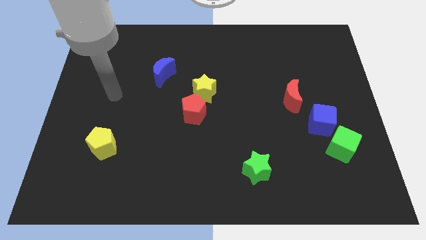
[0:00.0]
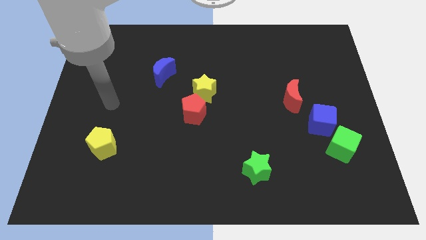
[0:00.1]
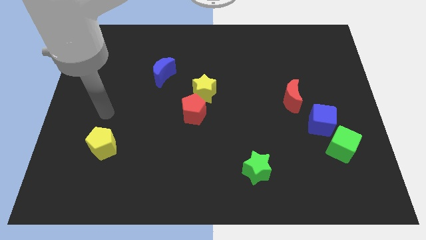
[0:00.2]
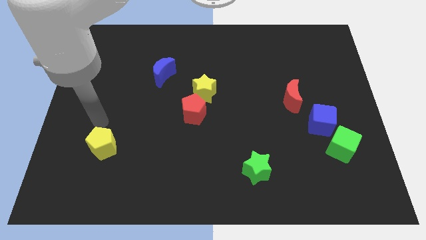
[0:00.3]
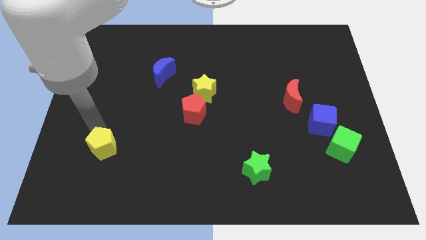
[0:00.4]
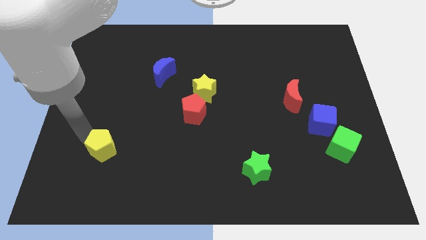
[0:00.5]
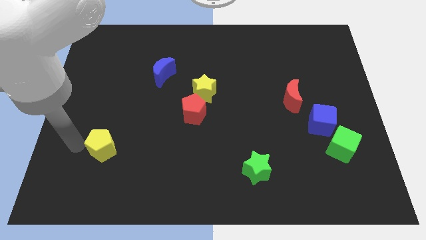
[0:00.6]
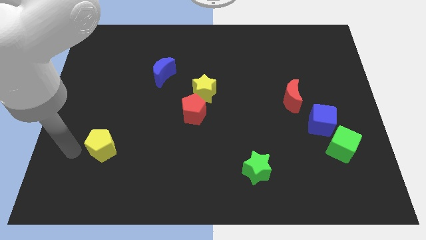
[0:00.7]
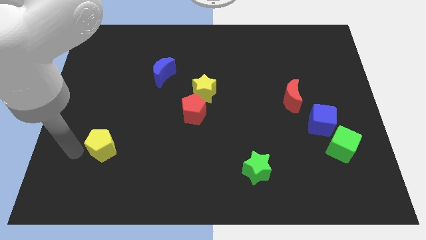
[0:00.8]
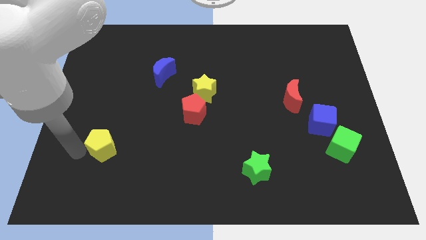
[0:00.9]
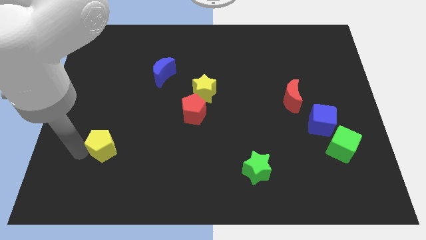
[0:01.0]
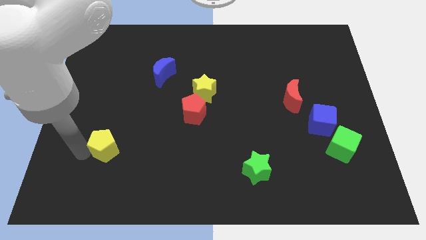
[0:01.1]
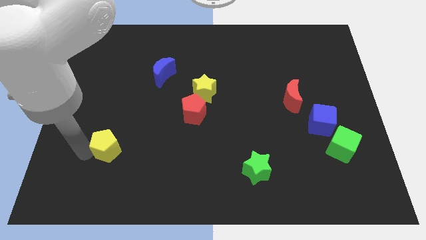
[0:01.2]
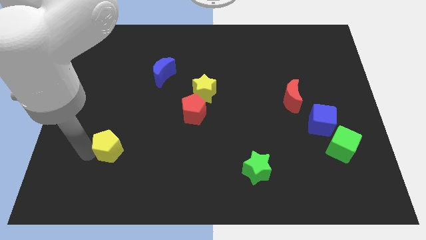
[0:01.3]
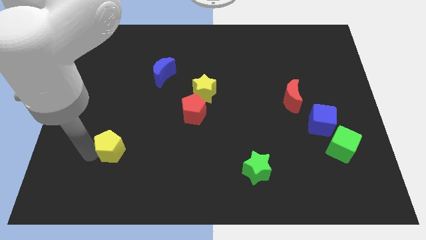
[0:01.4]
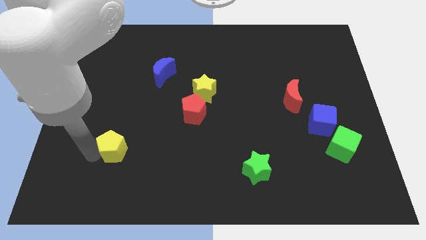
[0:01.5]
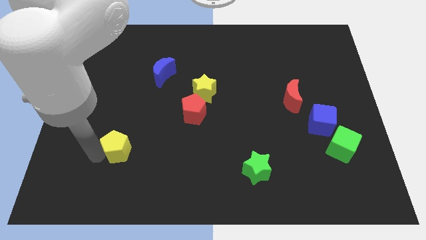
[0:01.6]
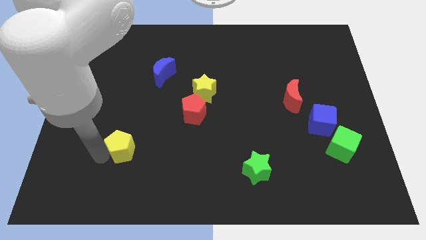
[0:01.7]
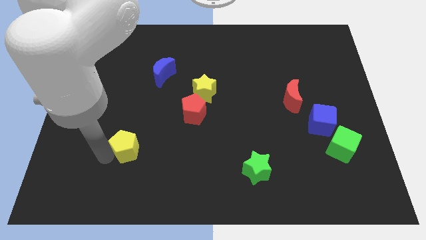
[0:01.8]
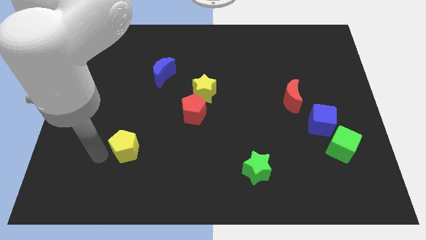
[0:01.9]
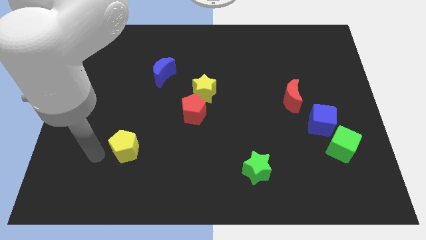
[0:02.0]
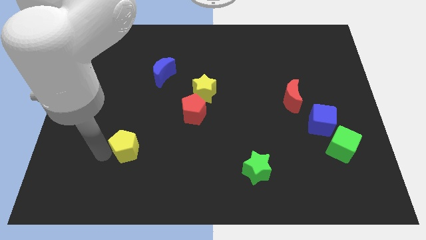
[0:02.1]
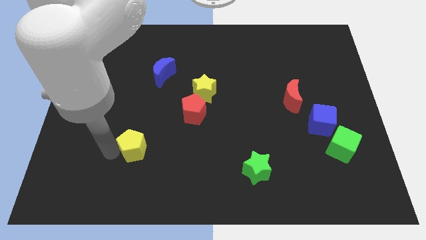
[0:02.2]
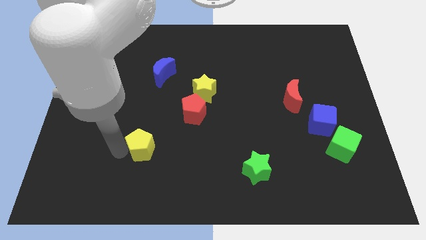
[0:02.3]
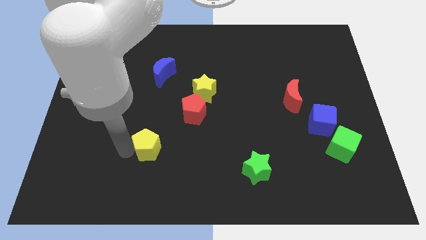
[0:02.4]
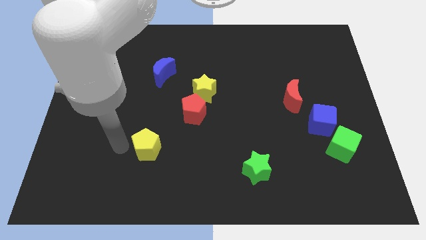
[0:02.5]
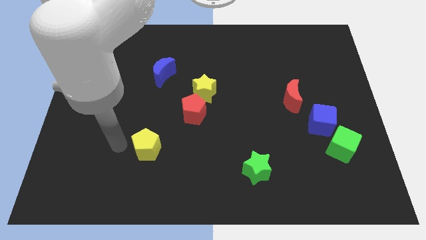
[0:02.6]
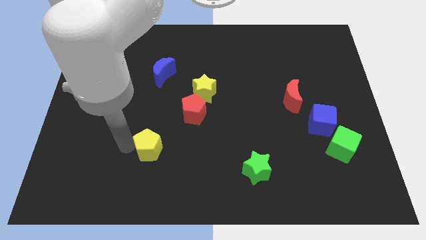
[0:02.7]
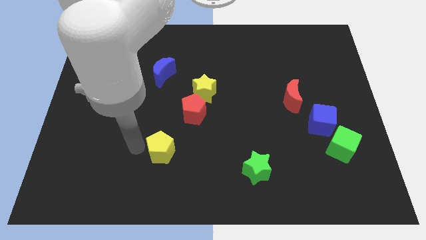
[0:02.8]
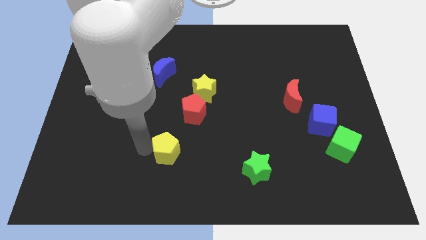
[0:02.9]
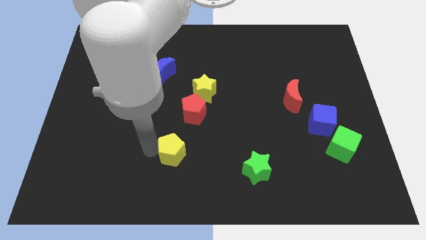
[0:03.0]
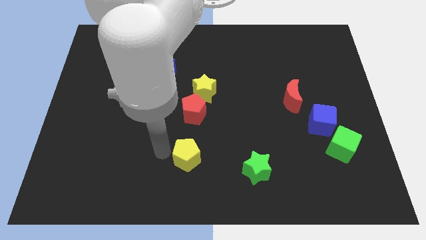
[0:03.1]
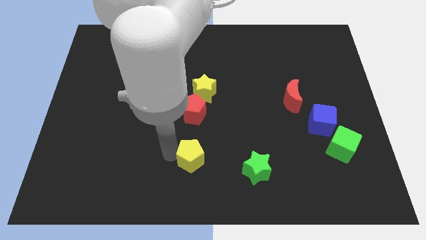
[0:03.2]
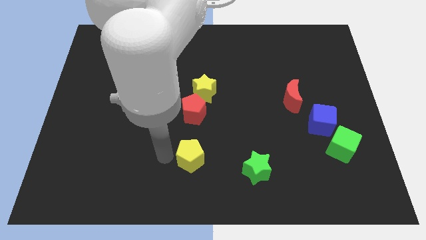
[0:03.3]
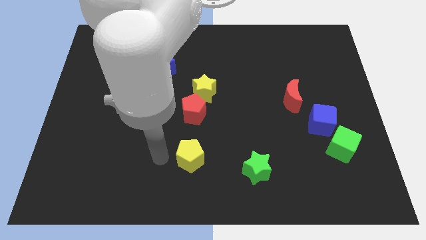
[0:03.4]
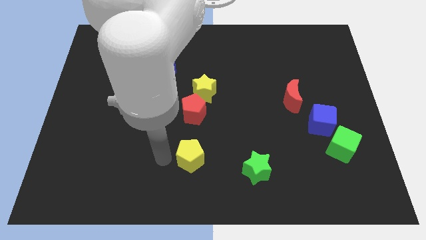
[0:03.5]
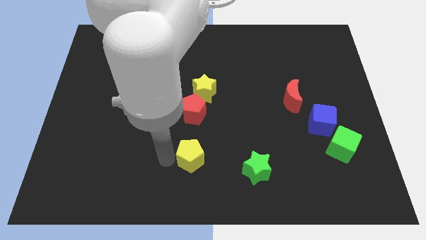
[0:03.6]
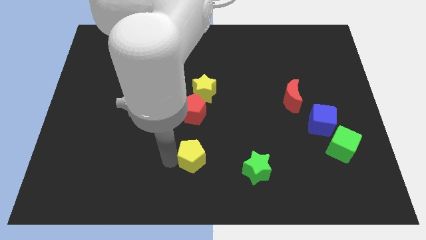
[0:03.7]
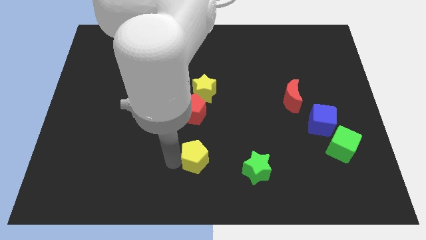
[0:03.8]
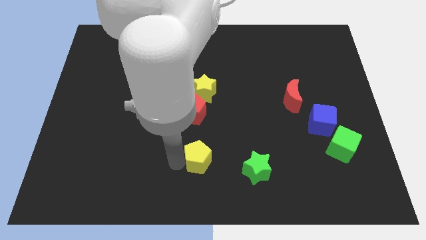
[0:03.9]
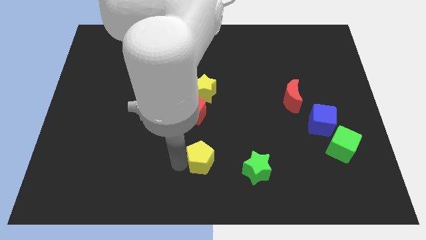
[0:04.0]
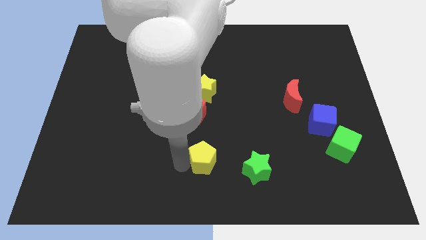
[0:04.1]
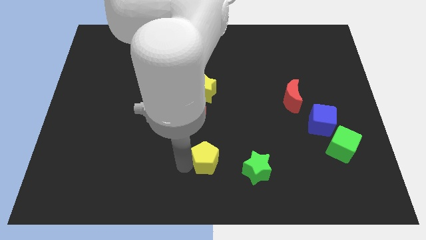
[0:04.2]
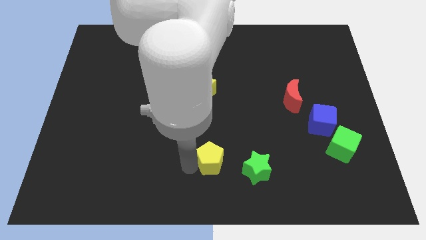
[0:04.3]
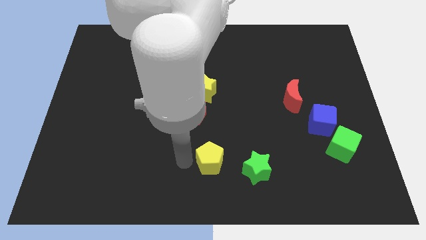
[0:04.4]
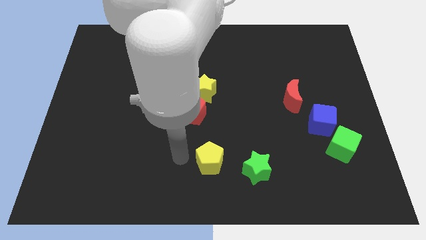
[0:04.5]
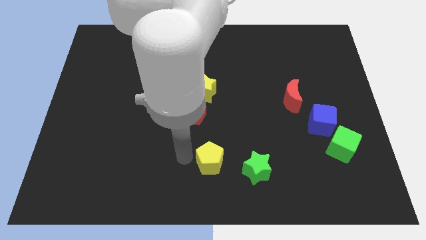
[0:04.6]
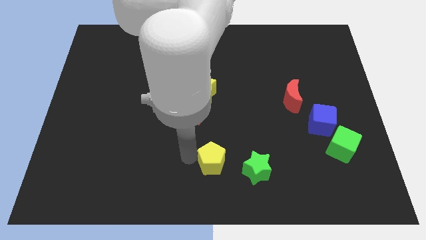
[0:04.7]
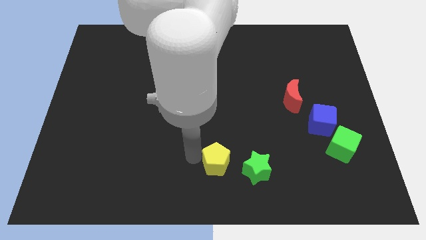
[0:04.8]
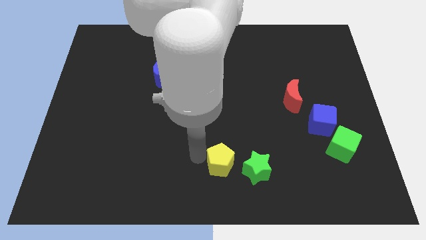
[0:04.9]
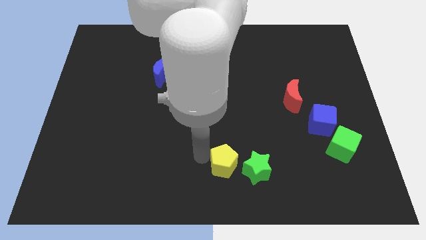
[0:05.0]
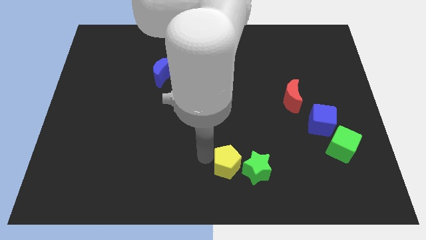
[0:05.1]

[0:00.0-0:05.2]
move the yellow pentagon to the green star

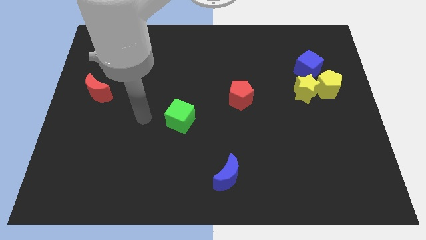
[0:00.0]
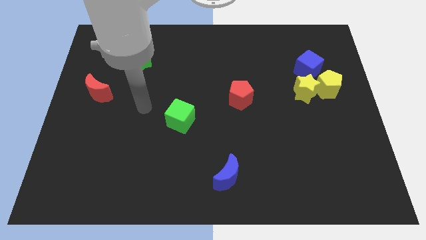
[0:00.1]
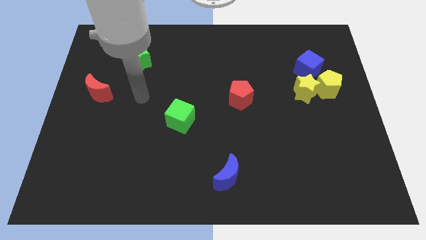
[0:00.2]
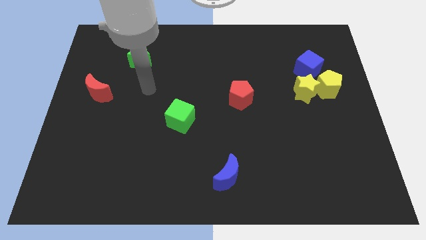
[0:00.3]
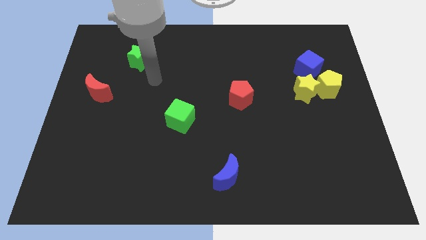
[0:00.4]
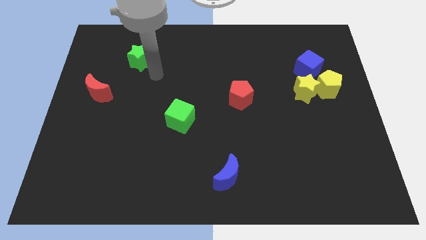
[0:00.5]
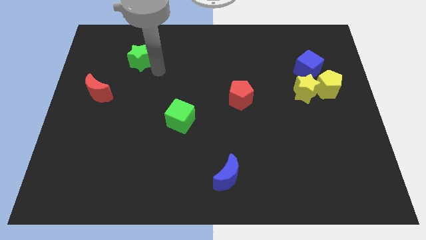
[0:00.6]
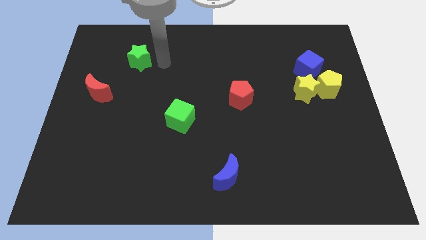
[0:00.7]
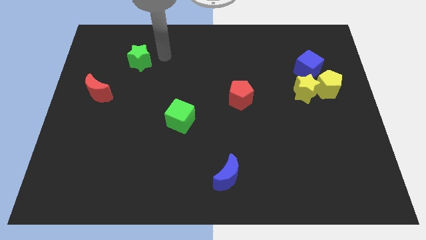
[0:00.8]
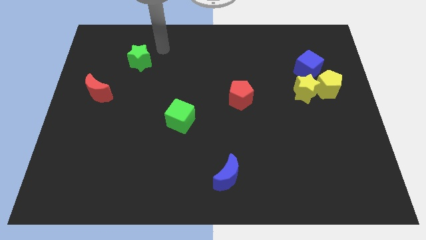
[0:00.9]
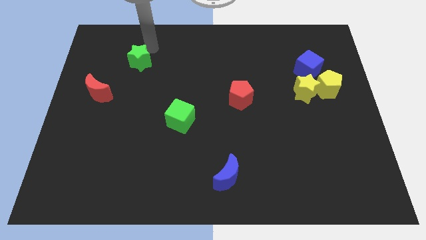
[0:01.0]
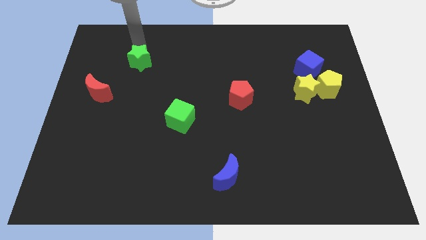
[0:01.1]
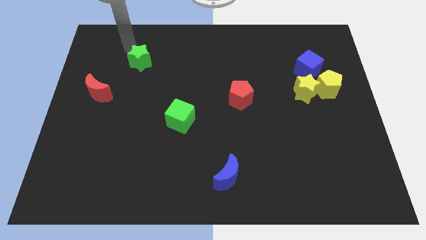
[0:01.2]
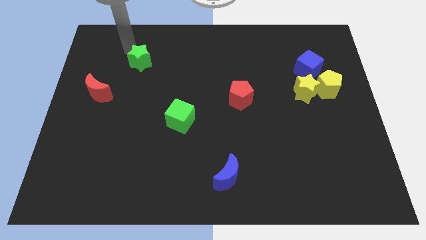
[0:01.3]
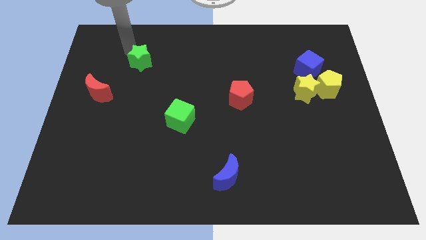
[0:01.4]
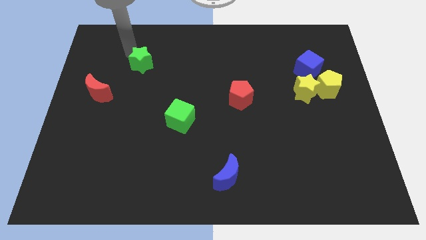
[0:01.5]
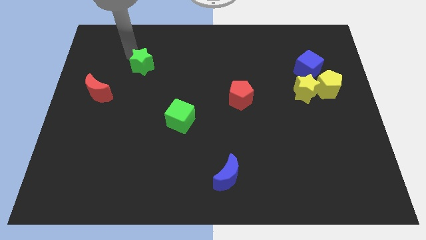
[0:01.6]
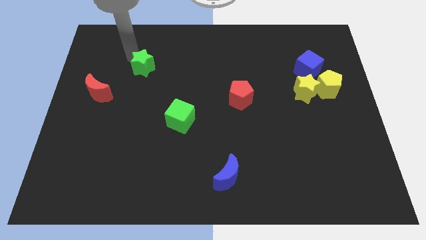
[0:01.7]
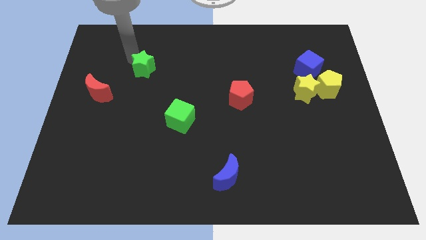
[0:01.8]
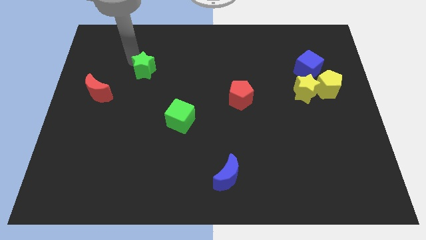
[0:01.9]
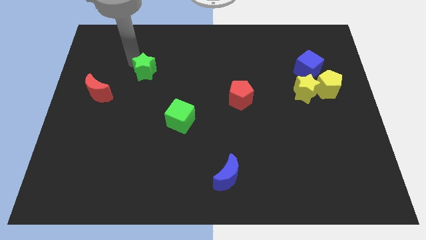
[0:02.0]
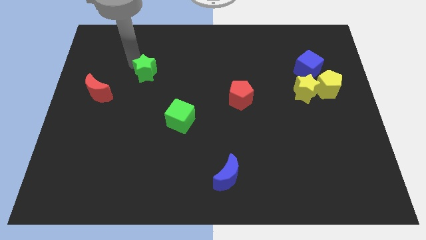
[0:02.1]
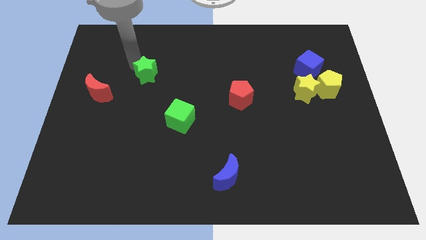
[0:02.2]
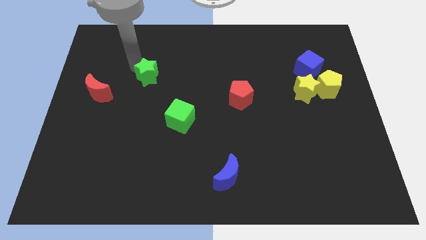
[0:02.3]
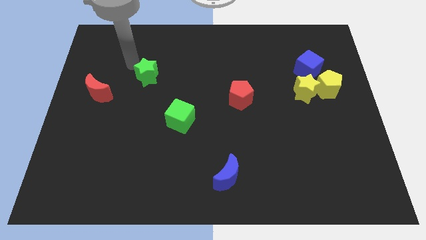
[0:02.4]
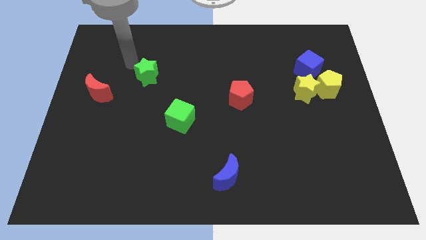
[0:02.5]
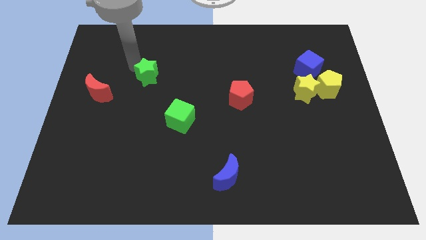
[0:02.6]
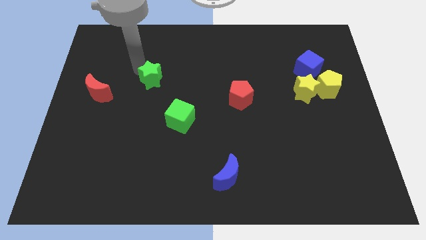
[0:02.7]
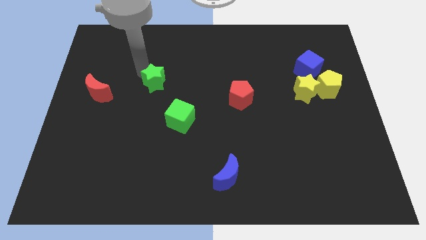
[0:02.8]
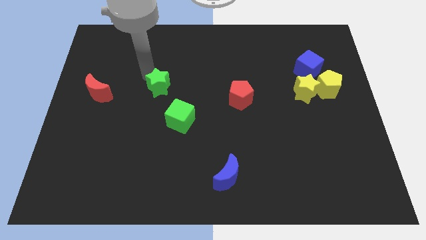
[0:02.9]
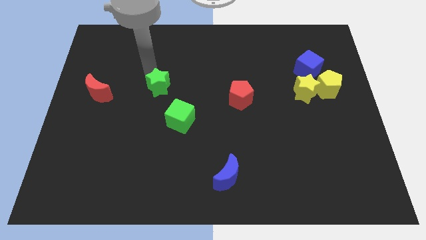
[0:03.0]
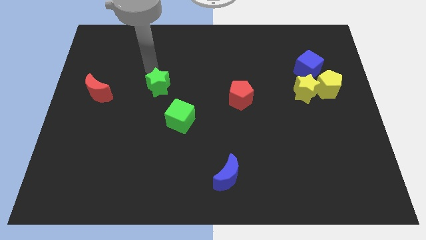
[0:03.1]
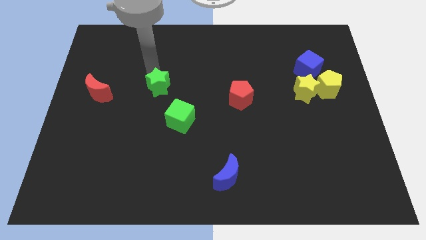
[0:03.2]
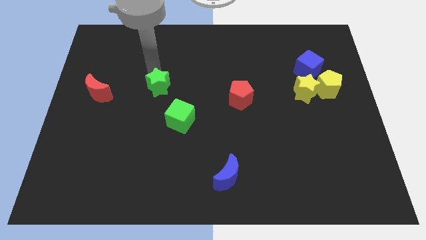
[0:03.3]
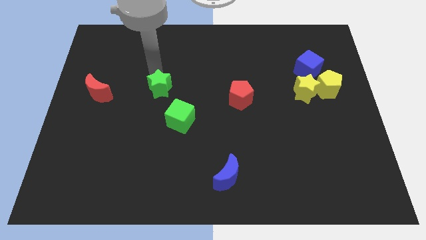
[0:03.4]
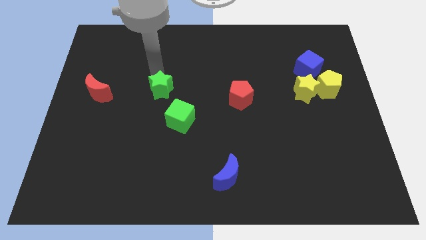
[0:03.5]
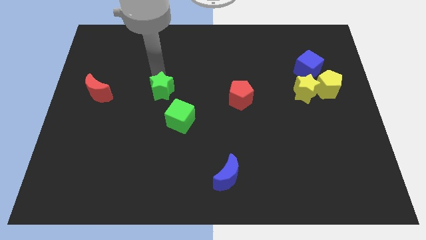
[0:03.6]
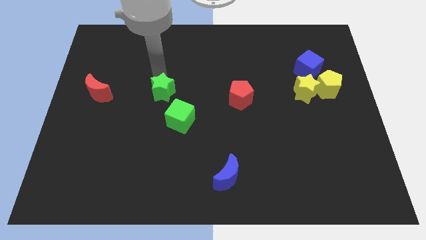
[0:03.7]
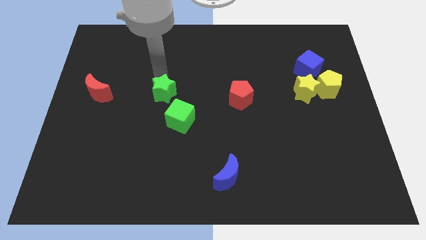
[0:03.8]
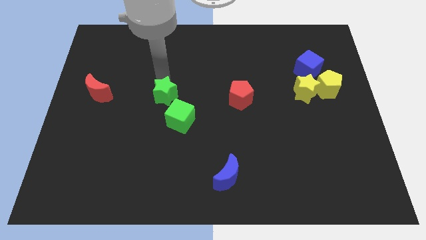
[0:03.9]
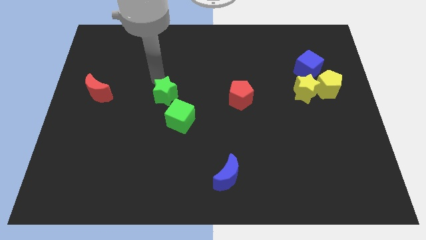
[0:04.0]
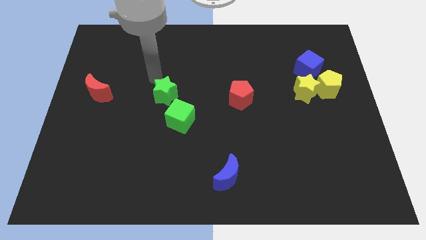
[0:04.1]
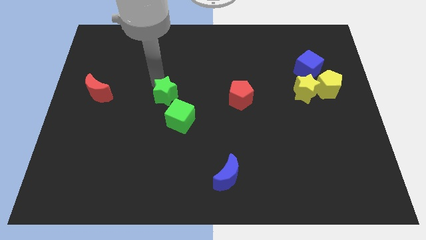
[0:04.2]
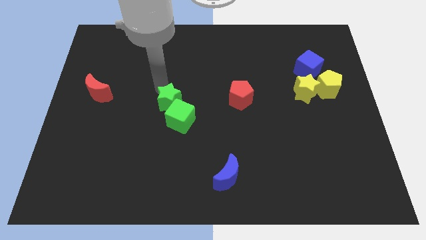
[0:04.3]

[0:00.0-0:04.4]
slide the green star towards the green cube
